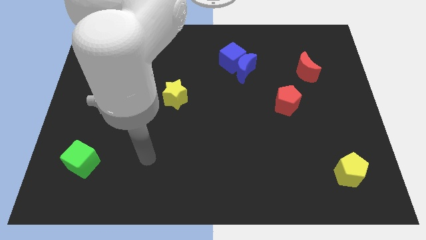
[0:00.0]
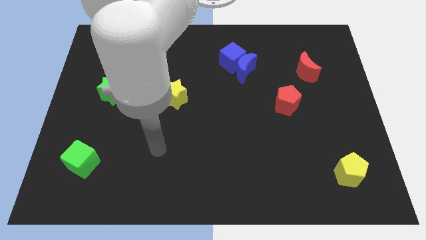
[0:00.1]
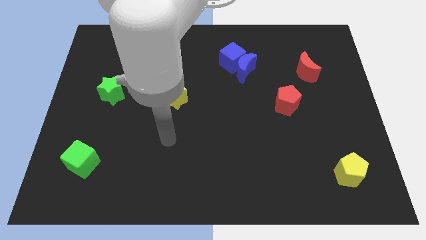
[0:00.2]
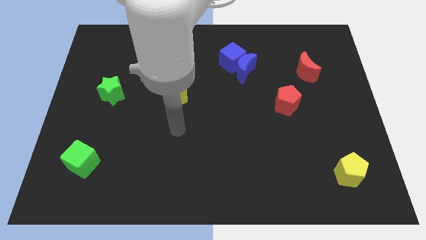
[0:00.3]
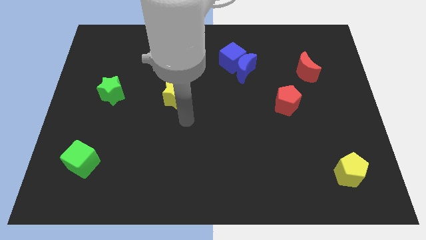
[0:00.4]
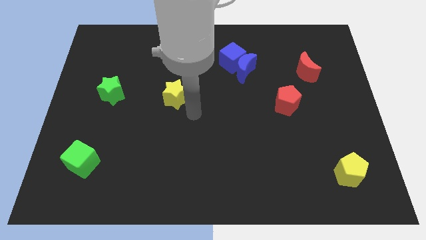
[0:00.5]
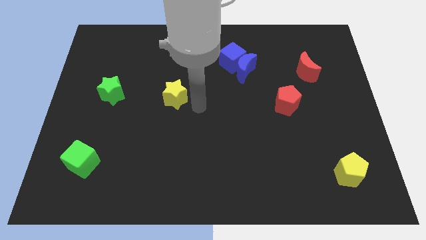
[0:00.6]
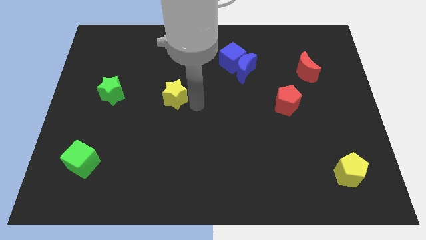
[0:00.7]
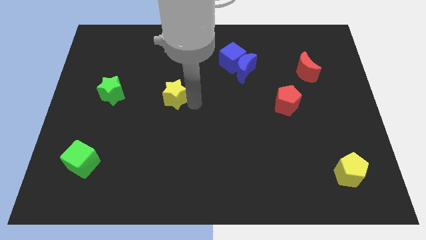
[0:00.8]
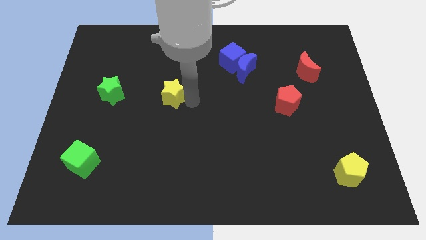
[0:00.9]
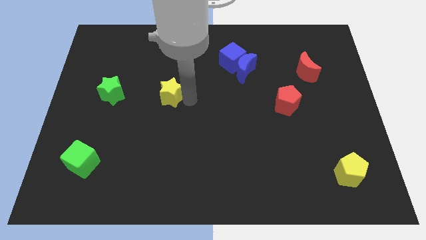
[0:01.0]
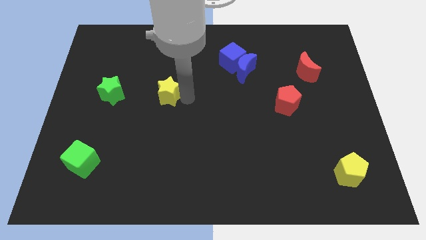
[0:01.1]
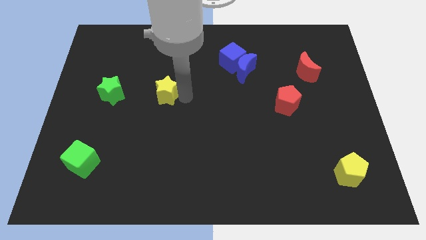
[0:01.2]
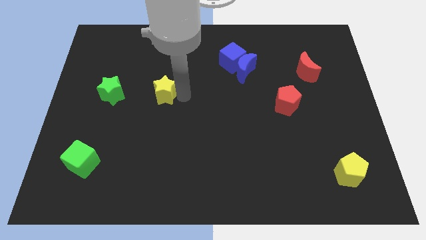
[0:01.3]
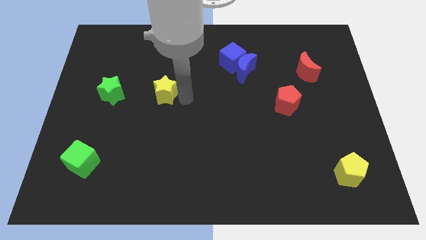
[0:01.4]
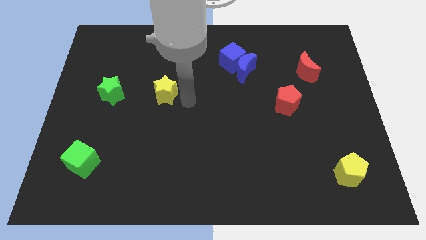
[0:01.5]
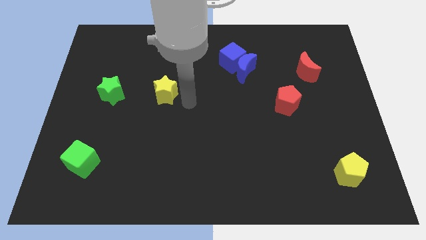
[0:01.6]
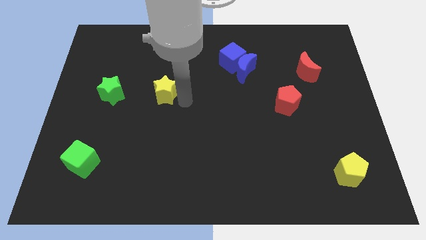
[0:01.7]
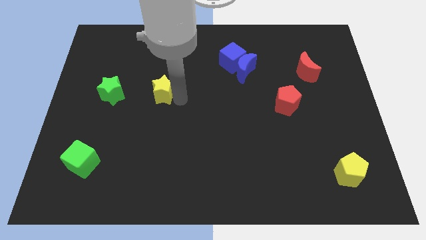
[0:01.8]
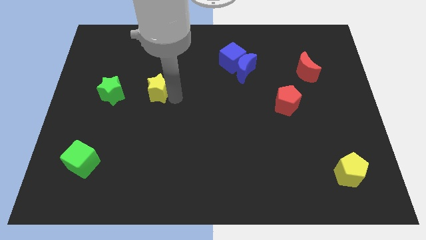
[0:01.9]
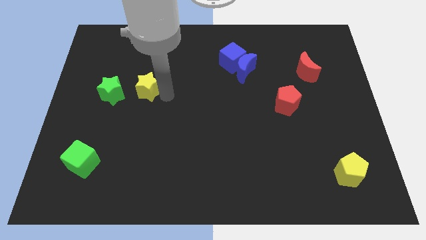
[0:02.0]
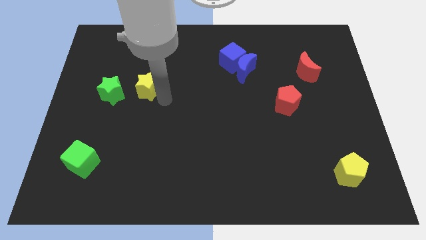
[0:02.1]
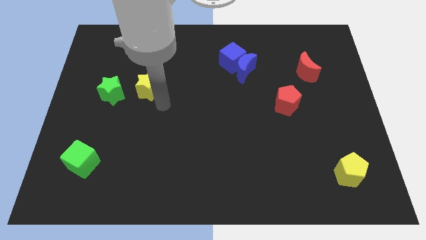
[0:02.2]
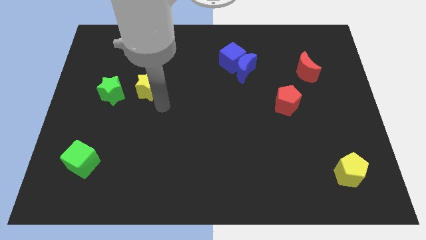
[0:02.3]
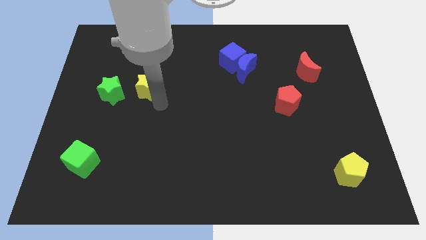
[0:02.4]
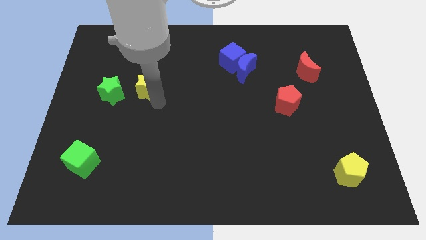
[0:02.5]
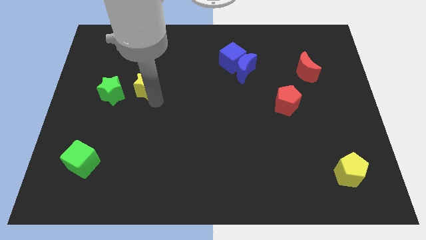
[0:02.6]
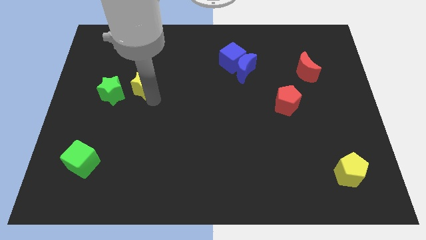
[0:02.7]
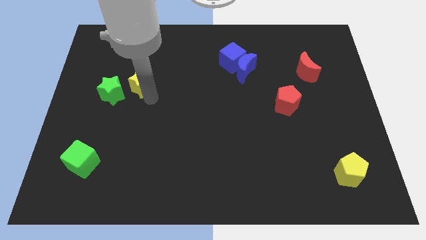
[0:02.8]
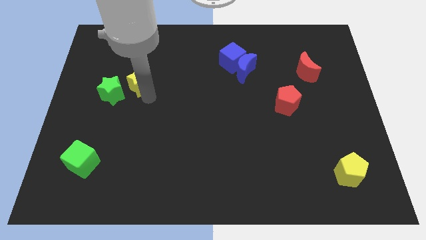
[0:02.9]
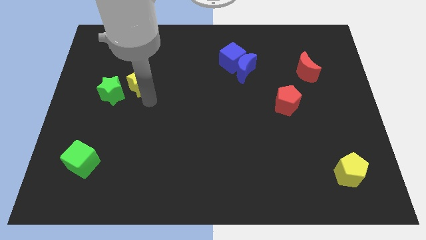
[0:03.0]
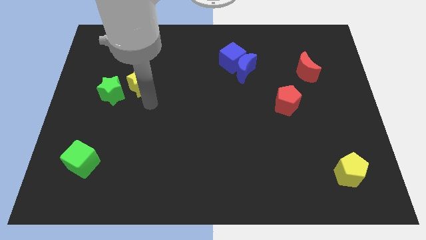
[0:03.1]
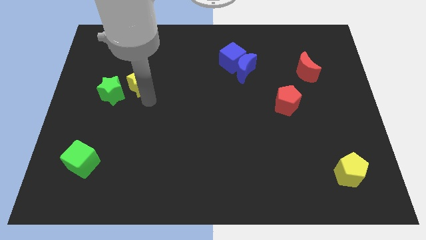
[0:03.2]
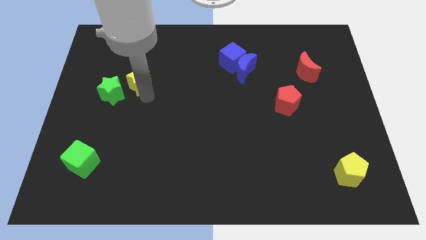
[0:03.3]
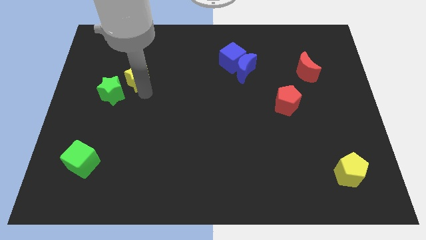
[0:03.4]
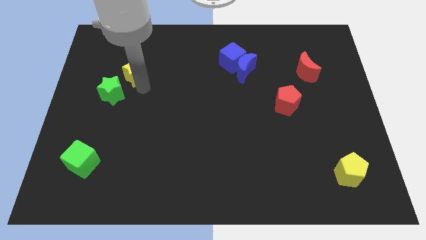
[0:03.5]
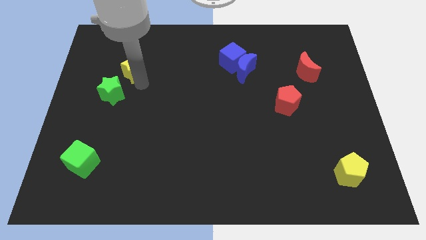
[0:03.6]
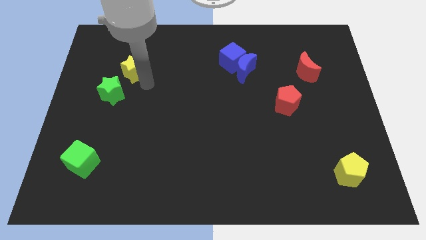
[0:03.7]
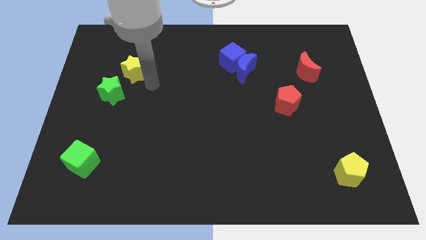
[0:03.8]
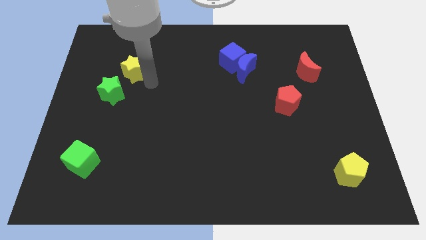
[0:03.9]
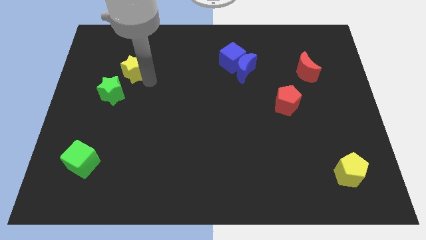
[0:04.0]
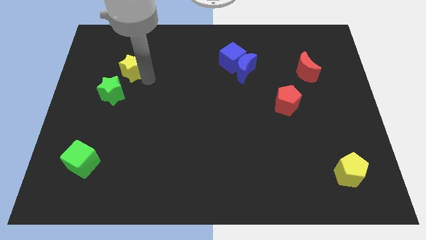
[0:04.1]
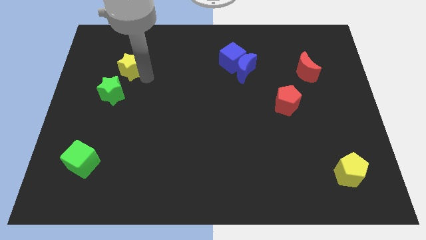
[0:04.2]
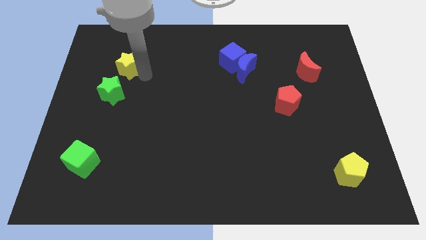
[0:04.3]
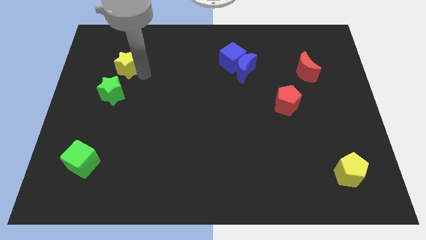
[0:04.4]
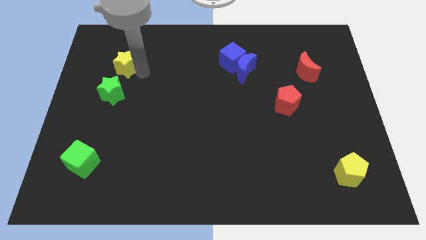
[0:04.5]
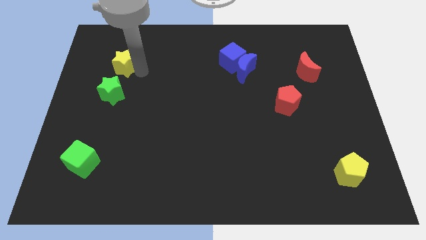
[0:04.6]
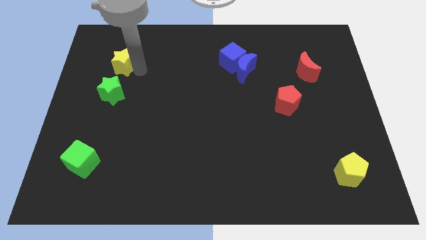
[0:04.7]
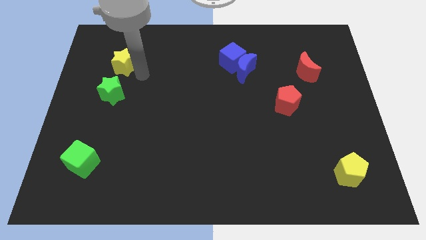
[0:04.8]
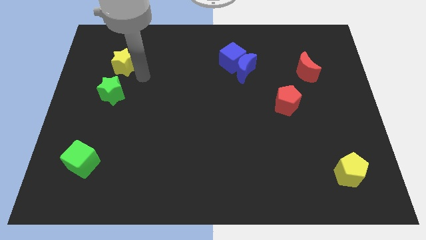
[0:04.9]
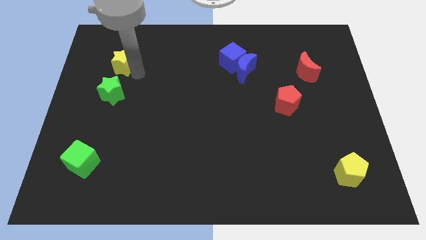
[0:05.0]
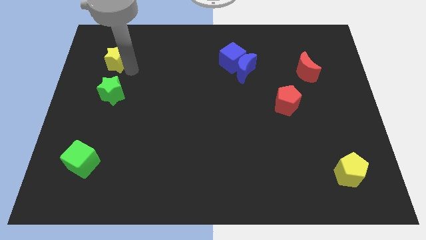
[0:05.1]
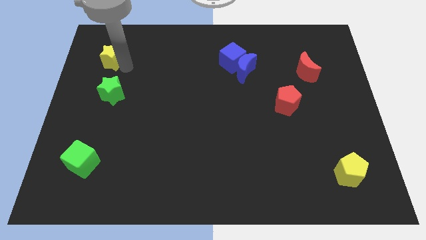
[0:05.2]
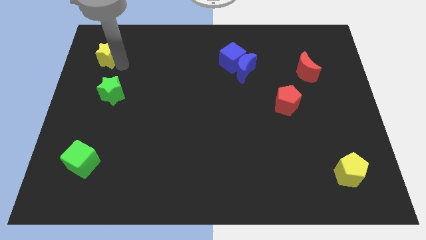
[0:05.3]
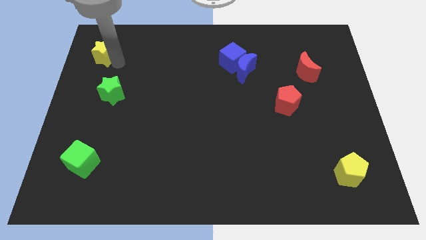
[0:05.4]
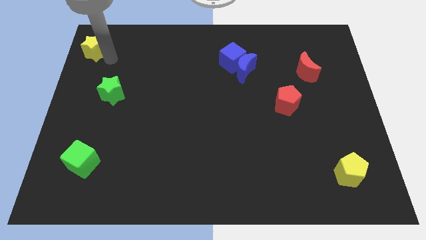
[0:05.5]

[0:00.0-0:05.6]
put the yellow star to the upper left corner

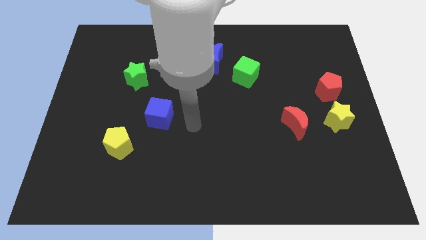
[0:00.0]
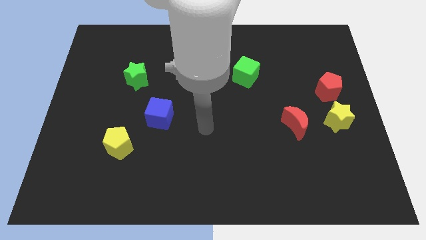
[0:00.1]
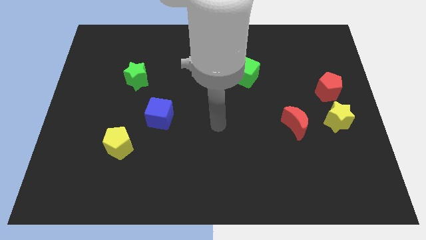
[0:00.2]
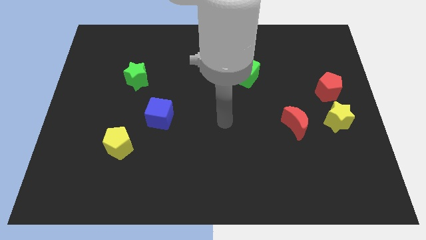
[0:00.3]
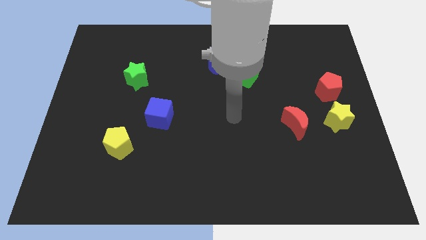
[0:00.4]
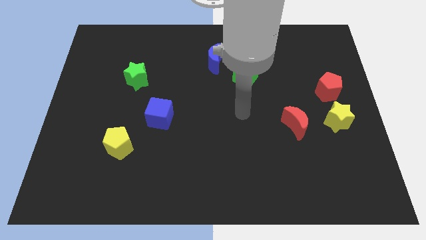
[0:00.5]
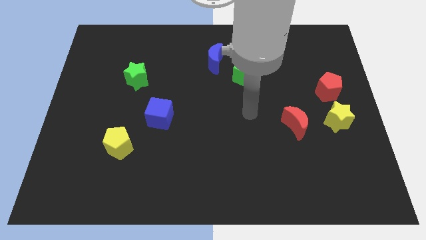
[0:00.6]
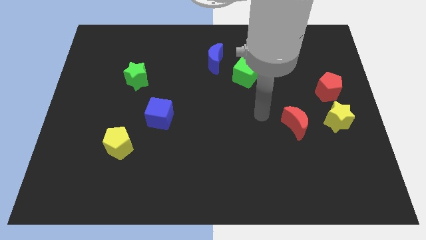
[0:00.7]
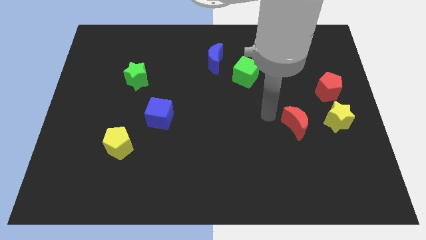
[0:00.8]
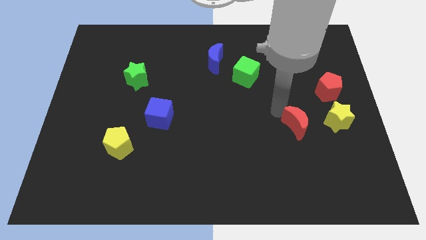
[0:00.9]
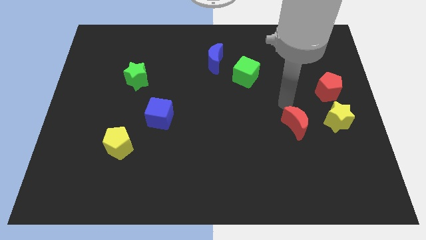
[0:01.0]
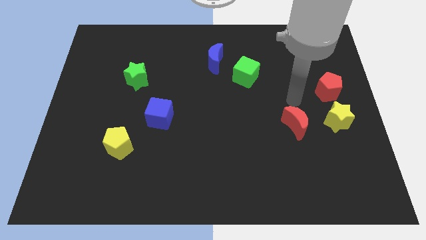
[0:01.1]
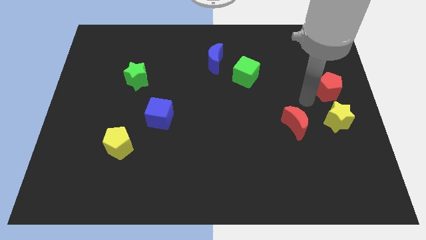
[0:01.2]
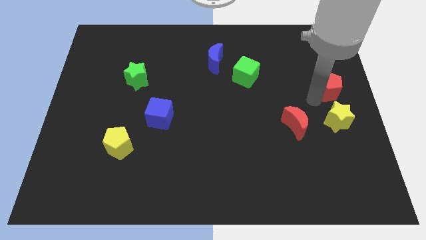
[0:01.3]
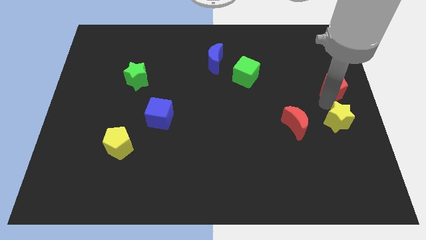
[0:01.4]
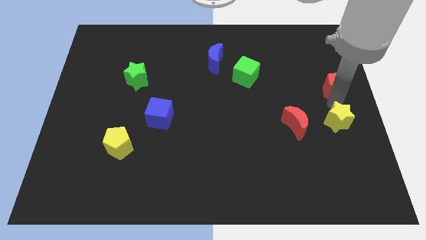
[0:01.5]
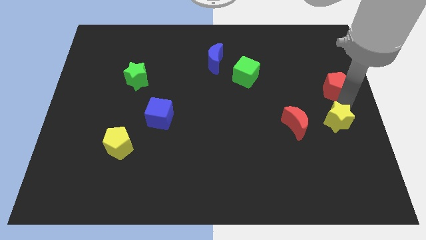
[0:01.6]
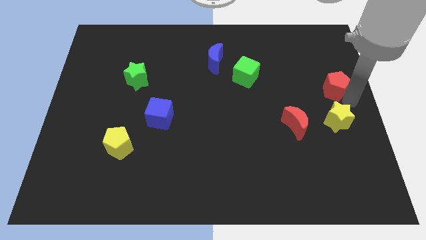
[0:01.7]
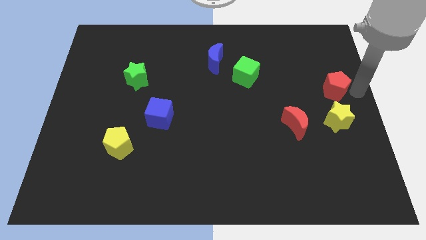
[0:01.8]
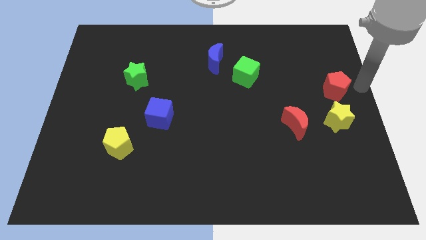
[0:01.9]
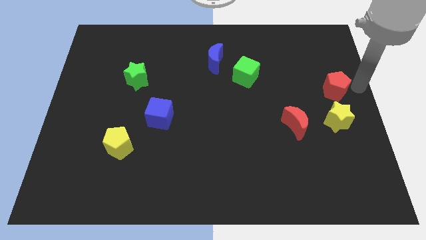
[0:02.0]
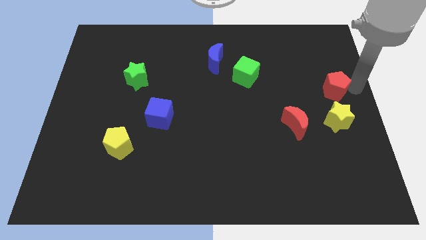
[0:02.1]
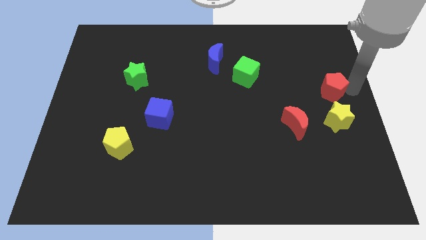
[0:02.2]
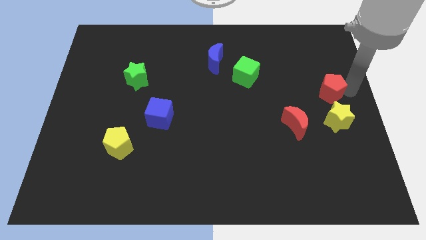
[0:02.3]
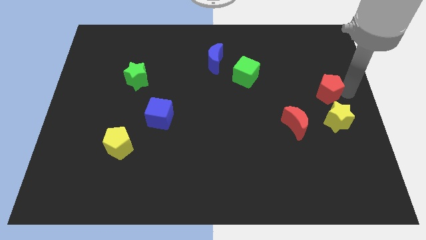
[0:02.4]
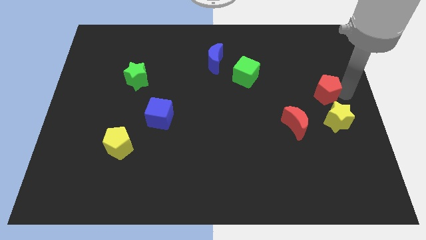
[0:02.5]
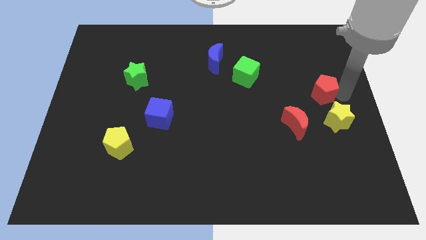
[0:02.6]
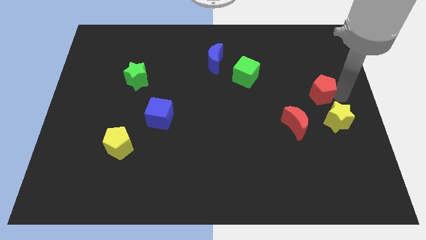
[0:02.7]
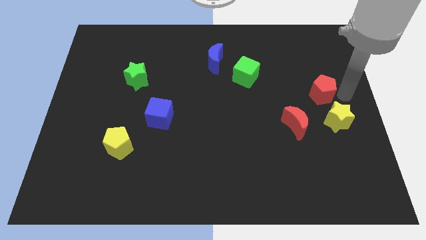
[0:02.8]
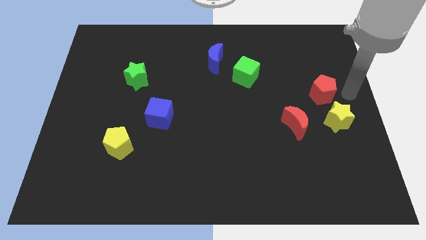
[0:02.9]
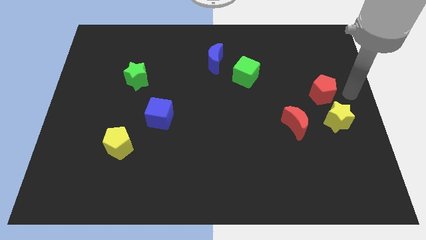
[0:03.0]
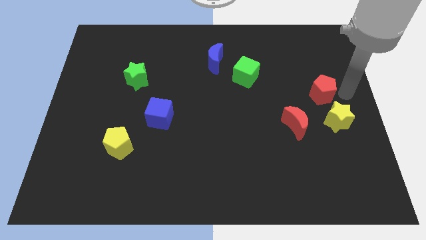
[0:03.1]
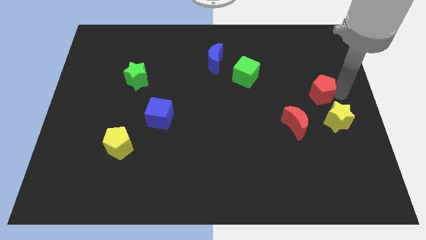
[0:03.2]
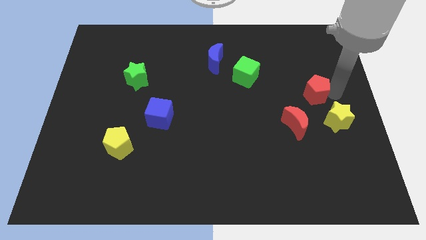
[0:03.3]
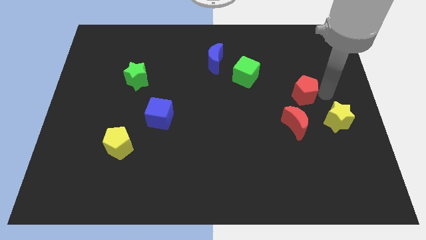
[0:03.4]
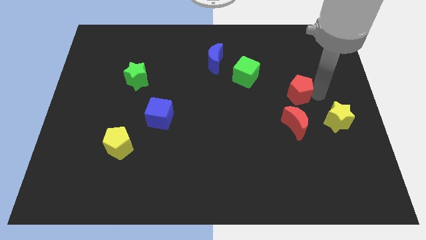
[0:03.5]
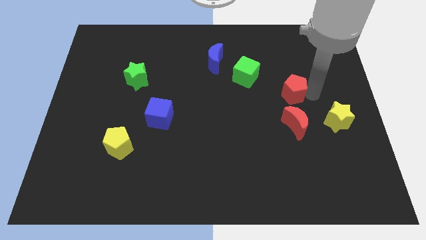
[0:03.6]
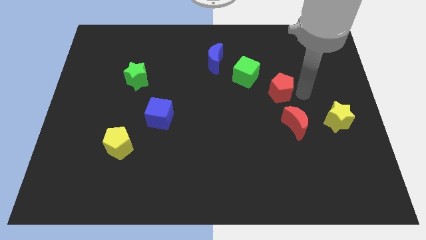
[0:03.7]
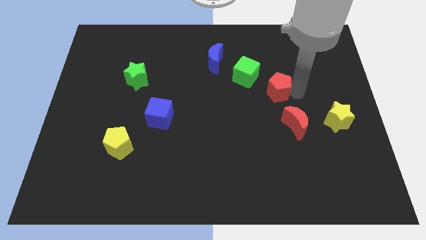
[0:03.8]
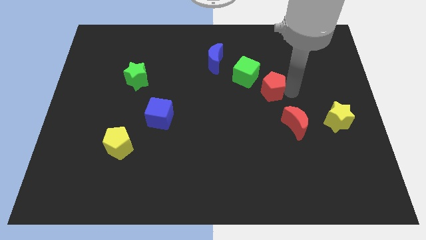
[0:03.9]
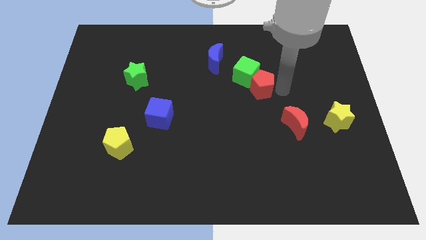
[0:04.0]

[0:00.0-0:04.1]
push the red pentagon to the middle
